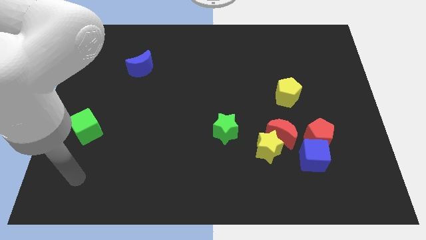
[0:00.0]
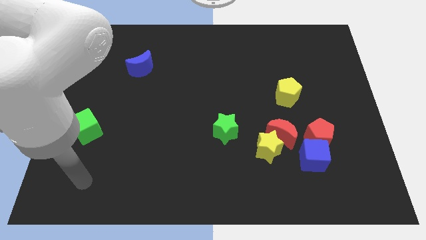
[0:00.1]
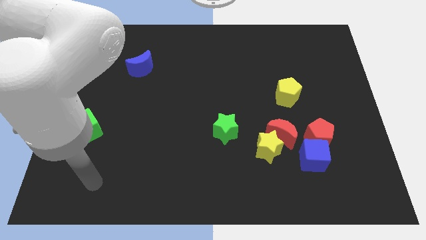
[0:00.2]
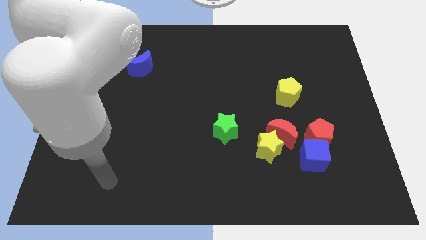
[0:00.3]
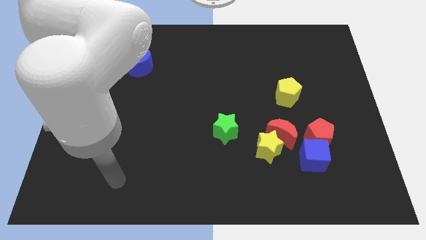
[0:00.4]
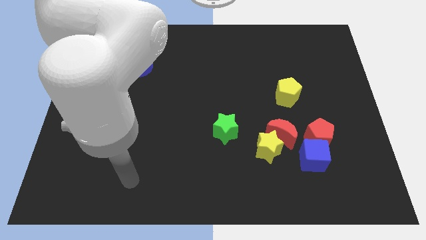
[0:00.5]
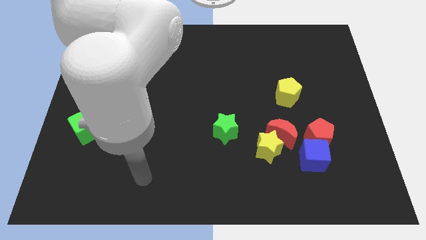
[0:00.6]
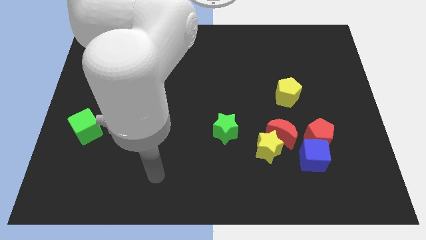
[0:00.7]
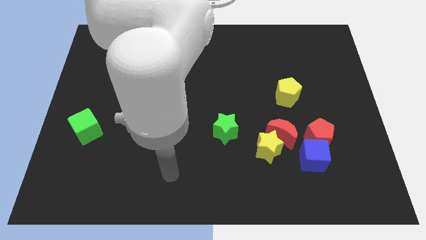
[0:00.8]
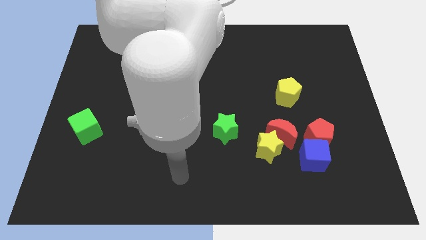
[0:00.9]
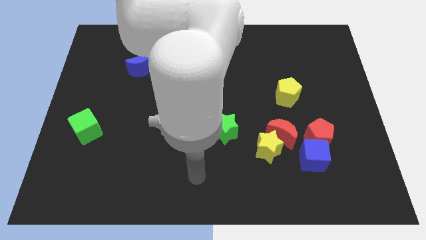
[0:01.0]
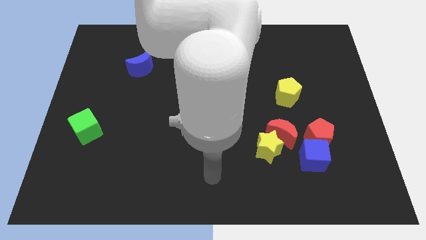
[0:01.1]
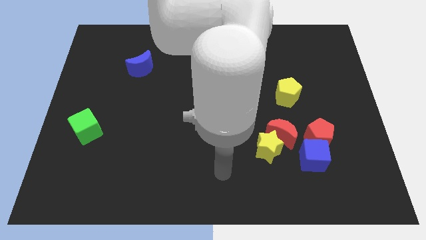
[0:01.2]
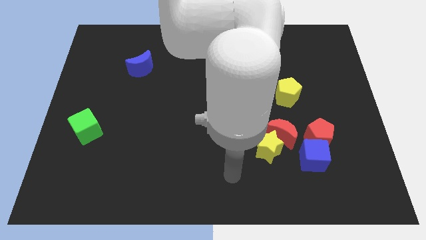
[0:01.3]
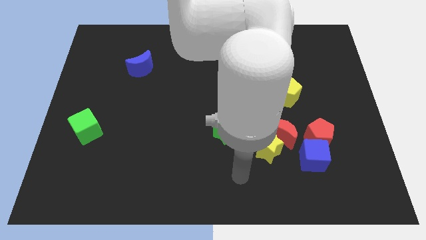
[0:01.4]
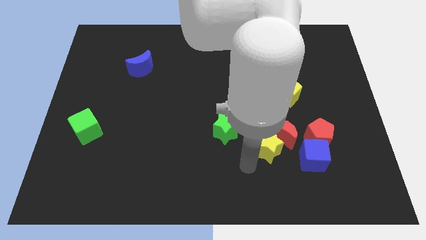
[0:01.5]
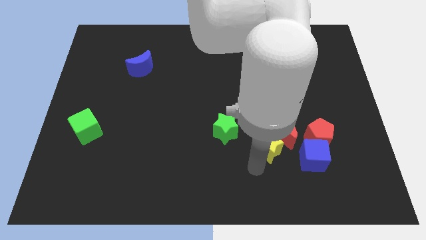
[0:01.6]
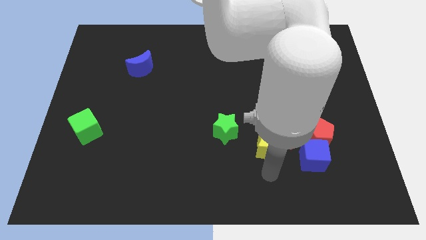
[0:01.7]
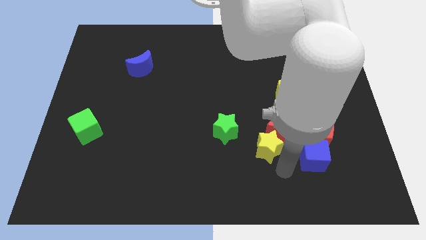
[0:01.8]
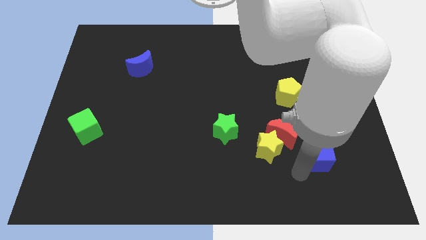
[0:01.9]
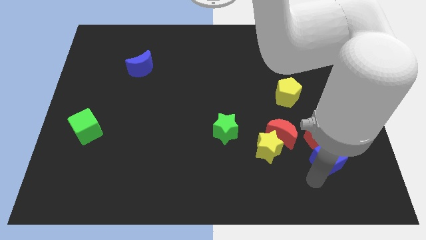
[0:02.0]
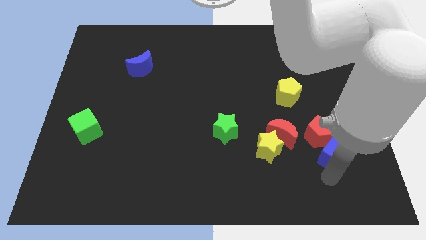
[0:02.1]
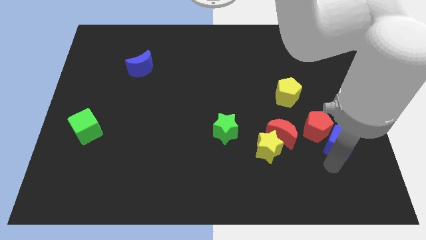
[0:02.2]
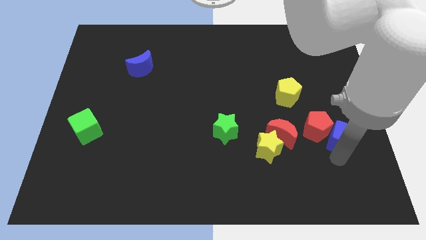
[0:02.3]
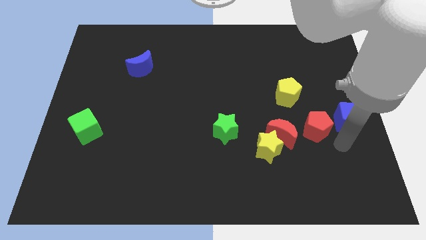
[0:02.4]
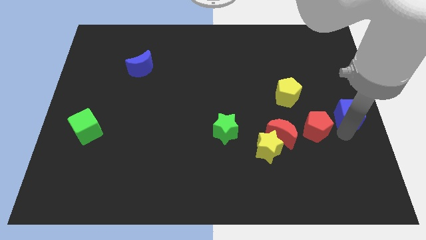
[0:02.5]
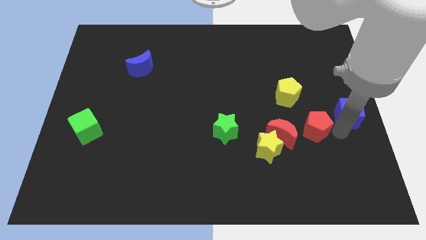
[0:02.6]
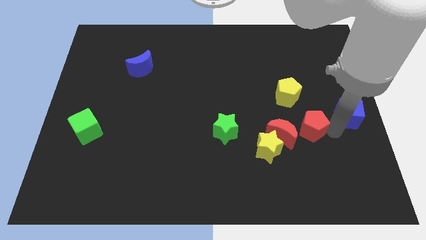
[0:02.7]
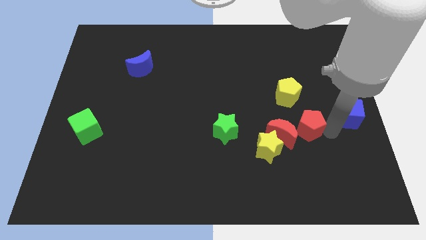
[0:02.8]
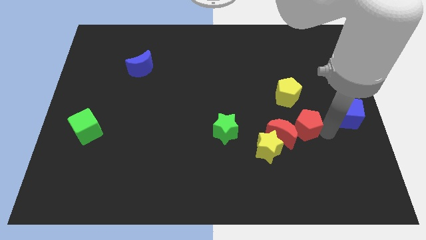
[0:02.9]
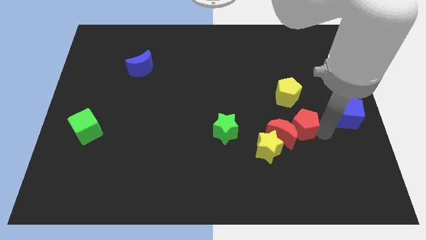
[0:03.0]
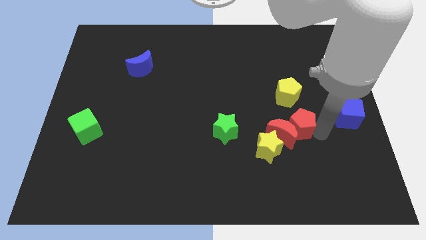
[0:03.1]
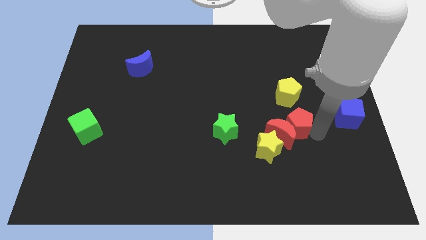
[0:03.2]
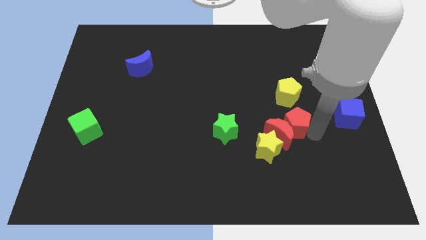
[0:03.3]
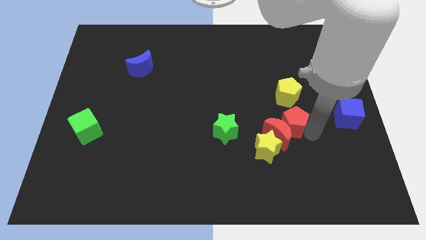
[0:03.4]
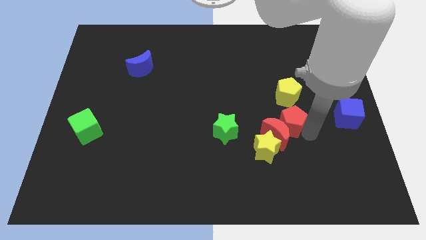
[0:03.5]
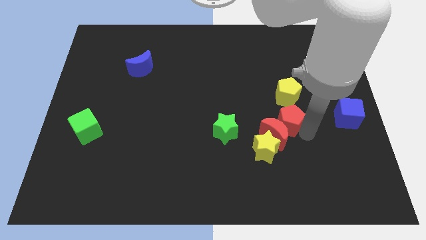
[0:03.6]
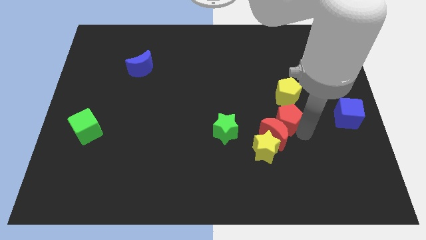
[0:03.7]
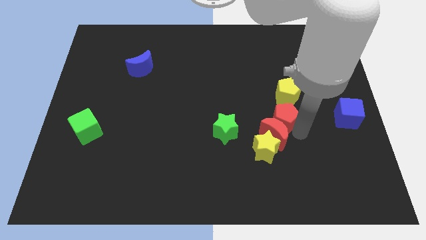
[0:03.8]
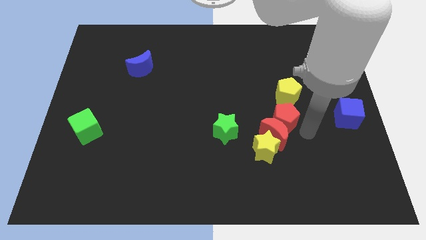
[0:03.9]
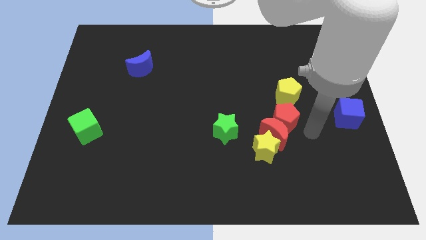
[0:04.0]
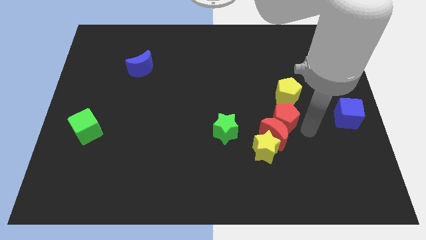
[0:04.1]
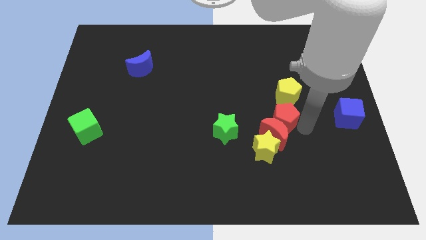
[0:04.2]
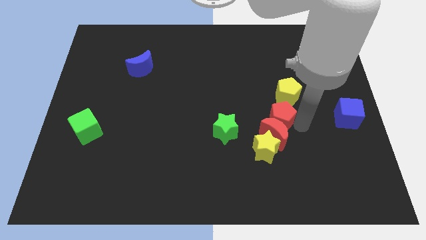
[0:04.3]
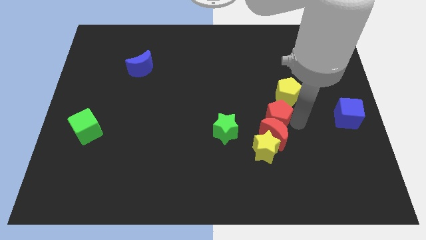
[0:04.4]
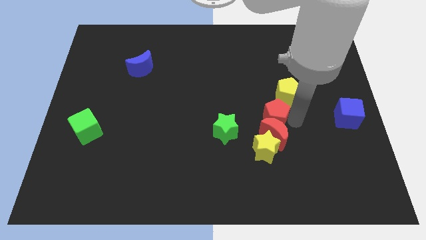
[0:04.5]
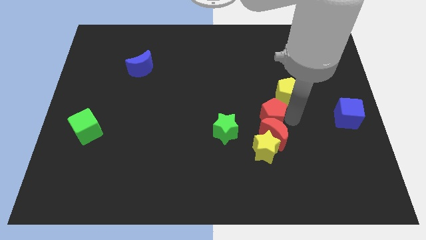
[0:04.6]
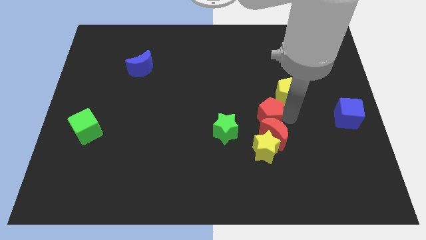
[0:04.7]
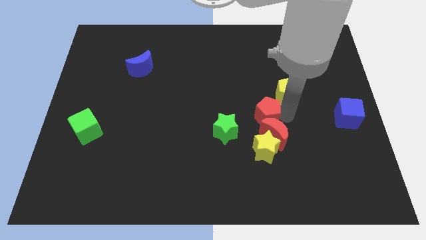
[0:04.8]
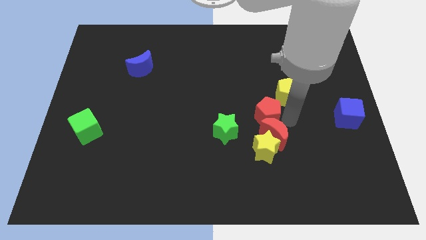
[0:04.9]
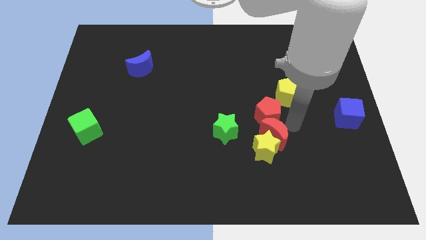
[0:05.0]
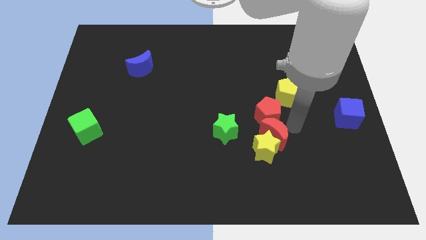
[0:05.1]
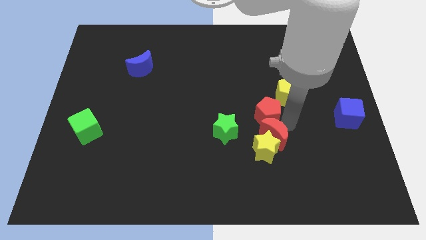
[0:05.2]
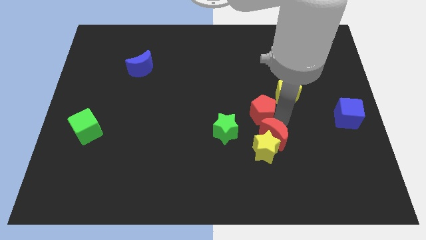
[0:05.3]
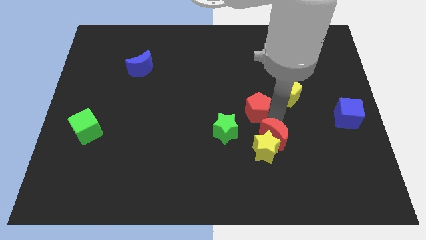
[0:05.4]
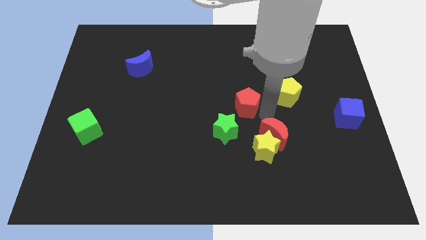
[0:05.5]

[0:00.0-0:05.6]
move the red pentagon to the top of the green star

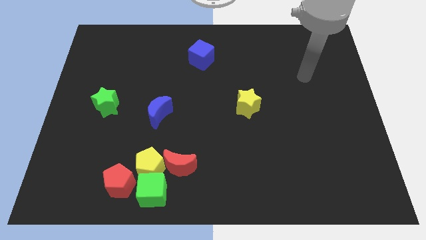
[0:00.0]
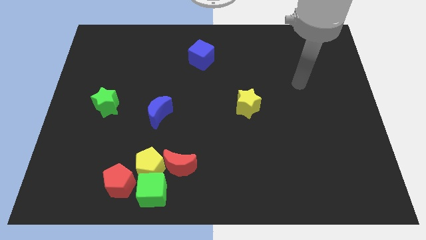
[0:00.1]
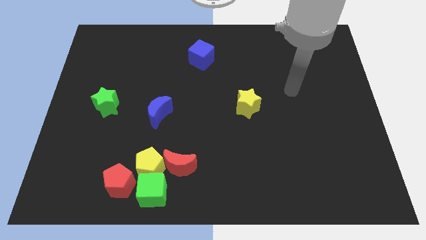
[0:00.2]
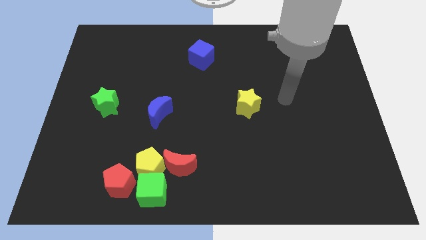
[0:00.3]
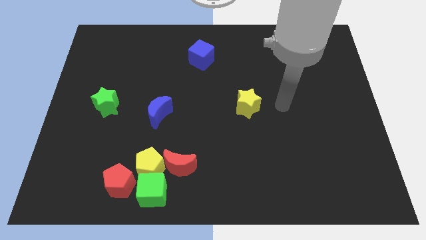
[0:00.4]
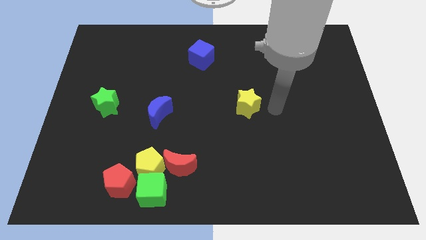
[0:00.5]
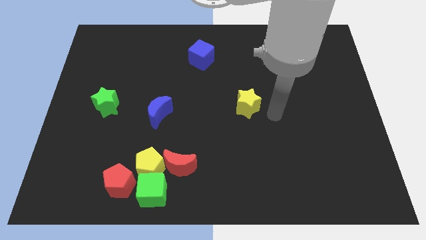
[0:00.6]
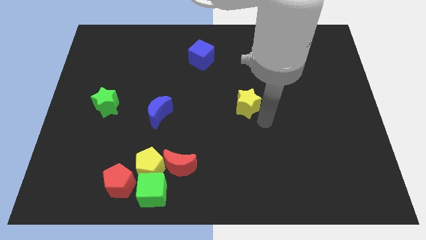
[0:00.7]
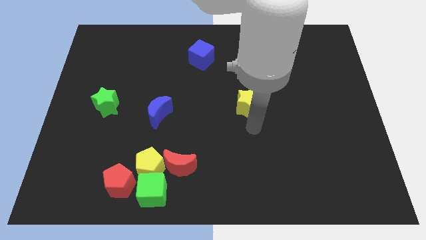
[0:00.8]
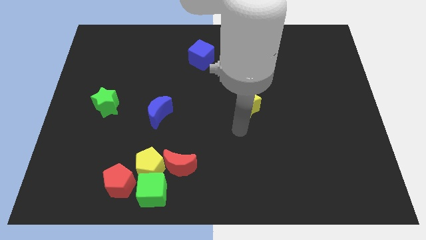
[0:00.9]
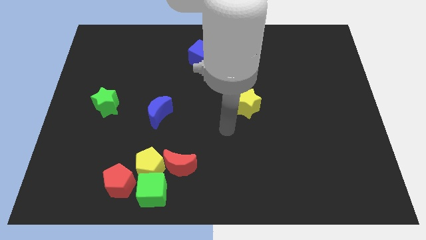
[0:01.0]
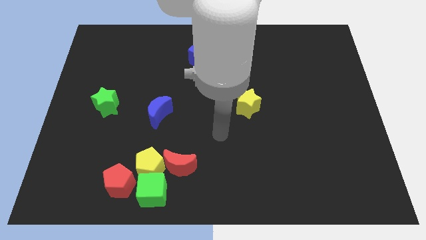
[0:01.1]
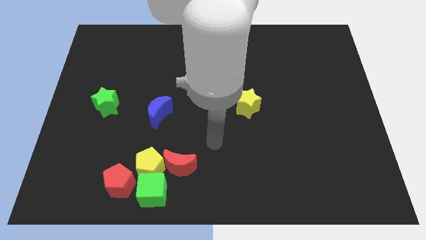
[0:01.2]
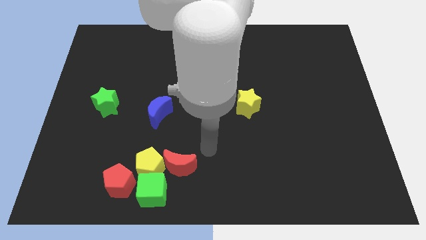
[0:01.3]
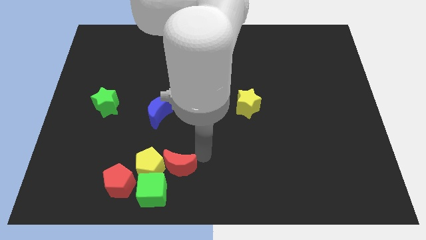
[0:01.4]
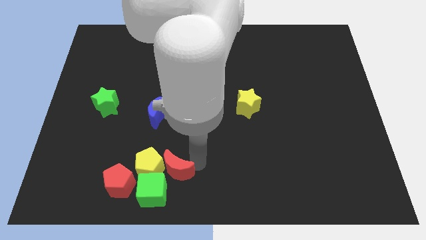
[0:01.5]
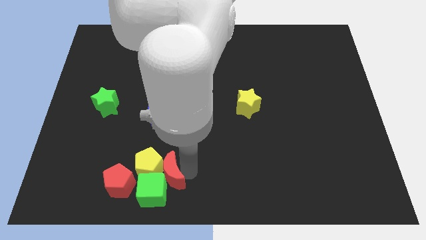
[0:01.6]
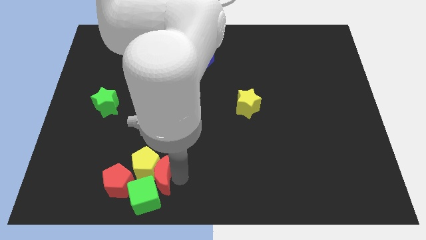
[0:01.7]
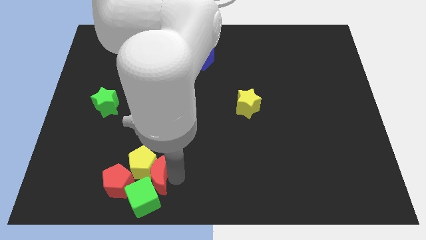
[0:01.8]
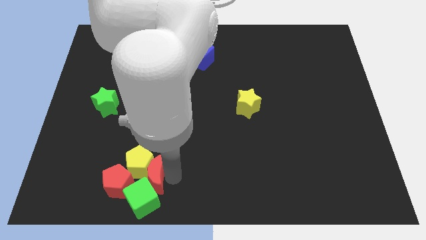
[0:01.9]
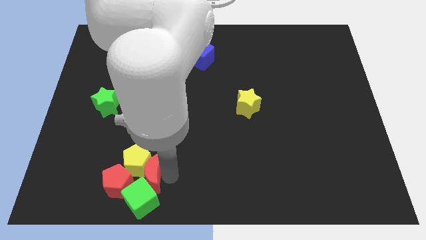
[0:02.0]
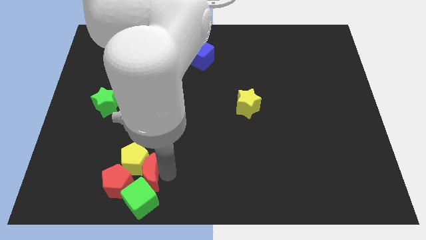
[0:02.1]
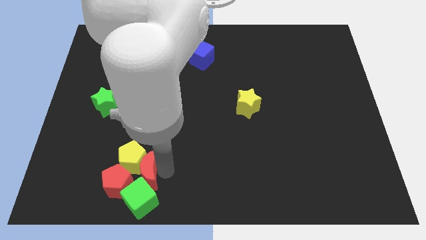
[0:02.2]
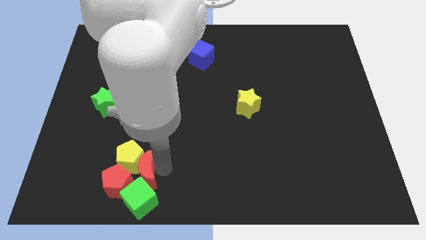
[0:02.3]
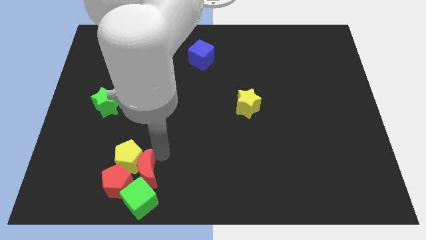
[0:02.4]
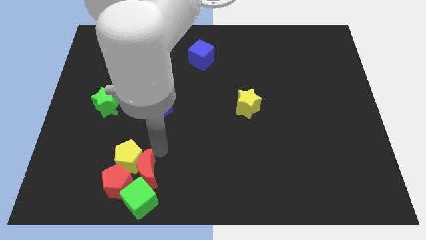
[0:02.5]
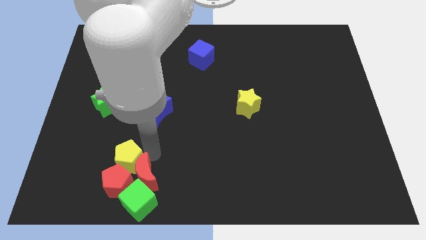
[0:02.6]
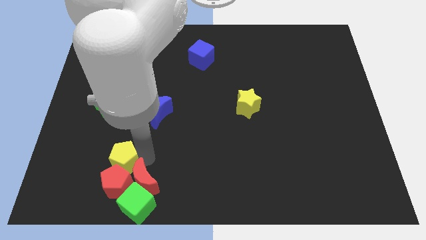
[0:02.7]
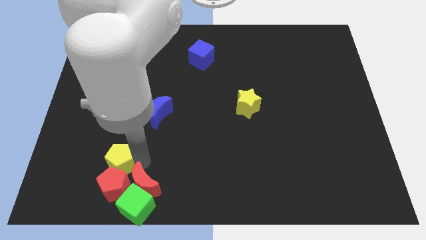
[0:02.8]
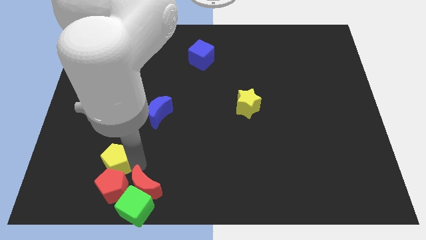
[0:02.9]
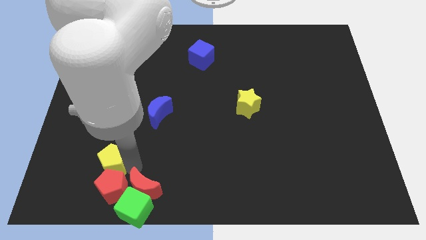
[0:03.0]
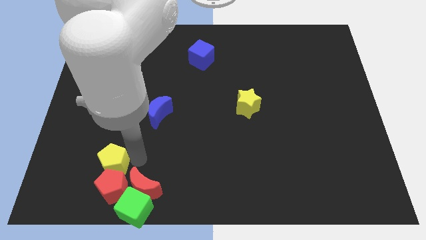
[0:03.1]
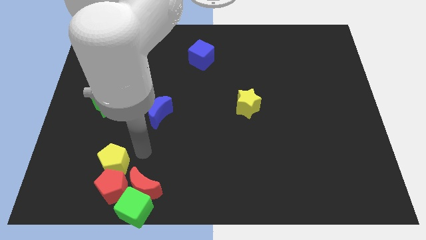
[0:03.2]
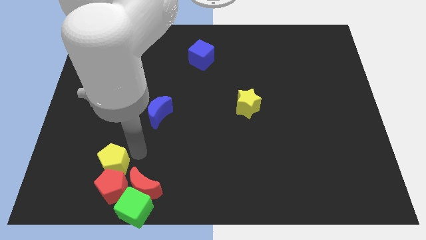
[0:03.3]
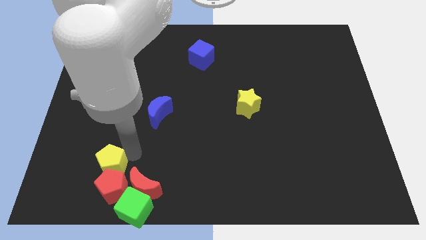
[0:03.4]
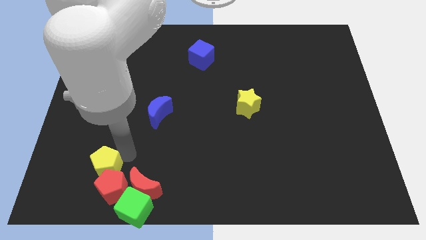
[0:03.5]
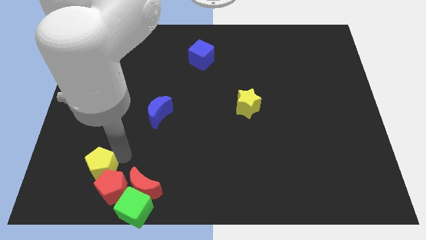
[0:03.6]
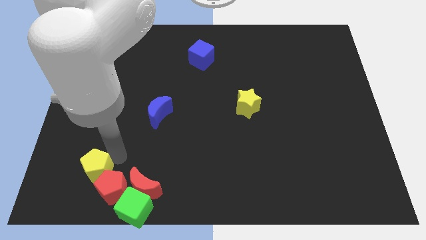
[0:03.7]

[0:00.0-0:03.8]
push the yellow pentagon just left of the red pentagon
